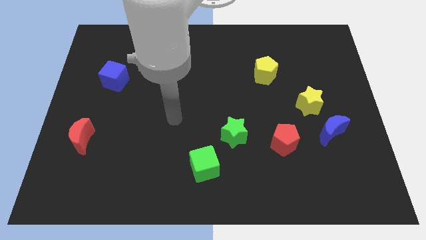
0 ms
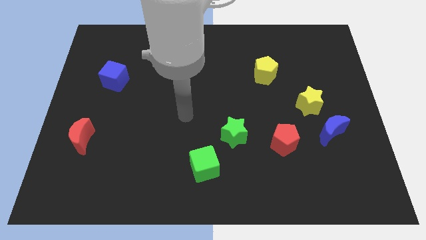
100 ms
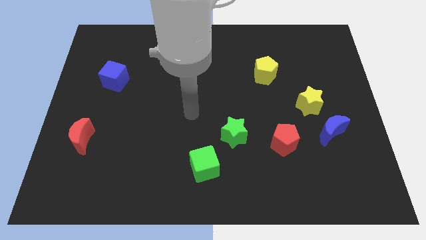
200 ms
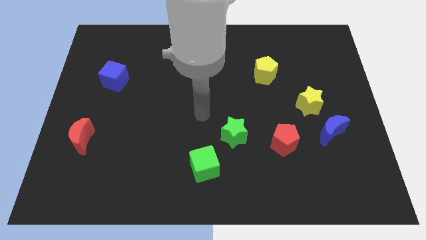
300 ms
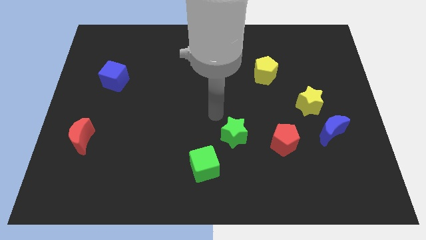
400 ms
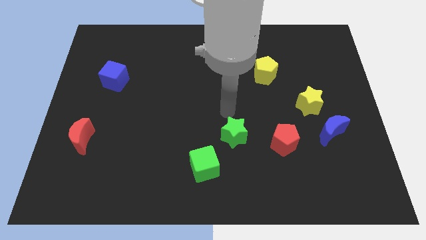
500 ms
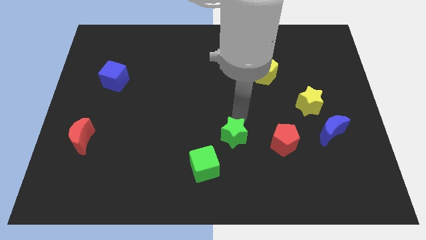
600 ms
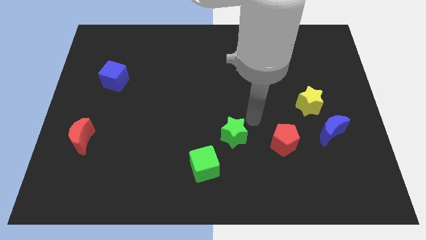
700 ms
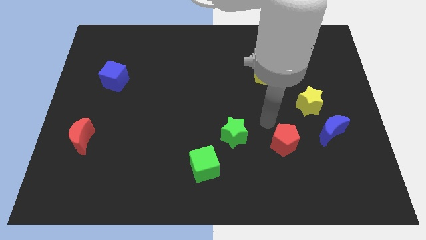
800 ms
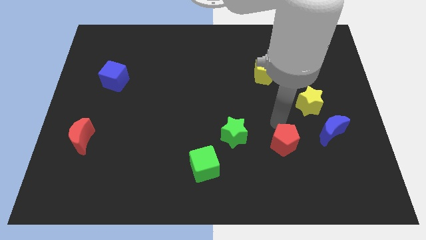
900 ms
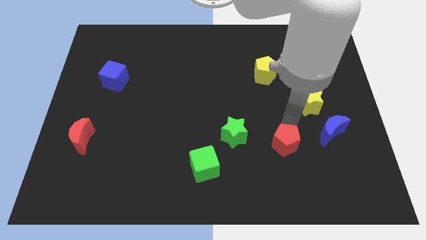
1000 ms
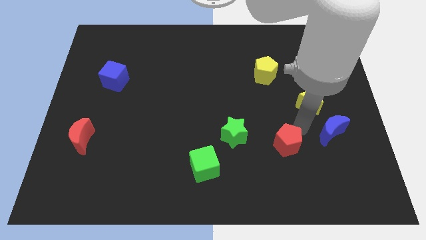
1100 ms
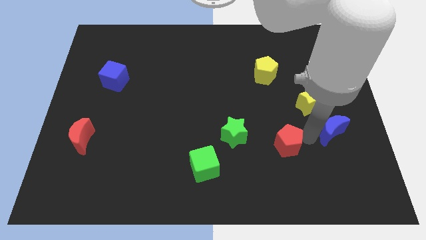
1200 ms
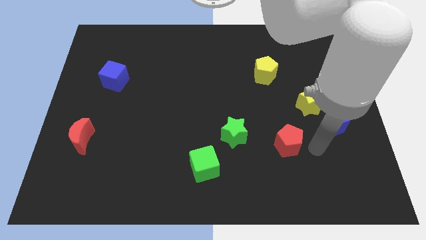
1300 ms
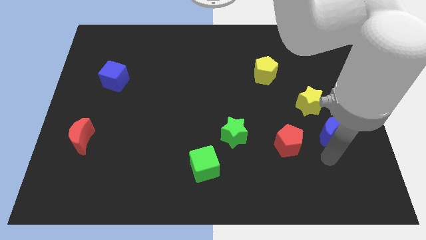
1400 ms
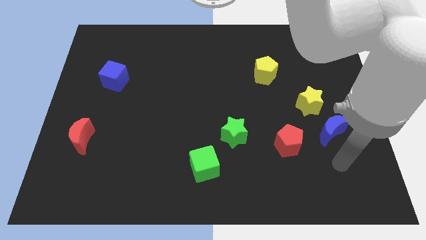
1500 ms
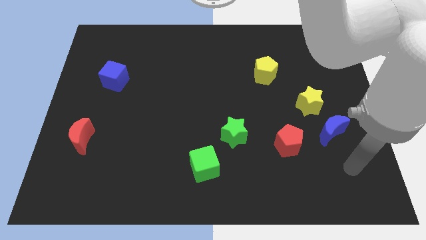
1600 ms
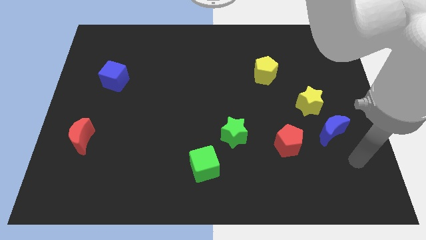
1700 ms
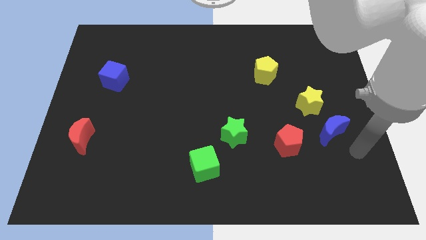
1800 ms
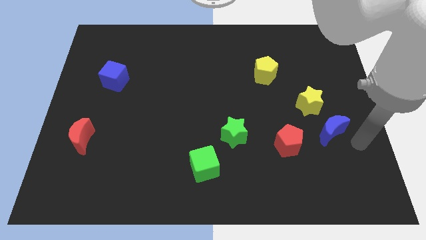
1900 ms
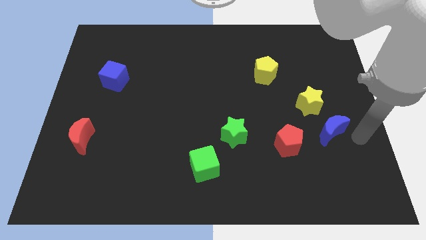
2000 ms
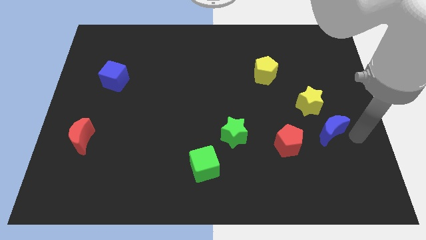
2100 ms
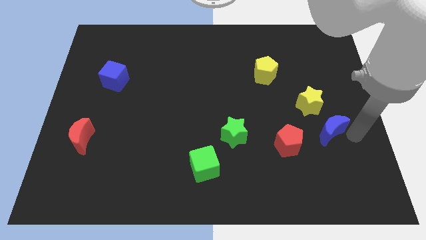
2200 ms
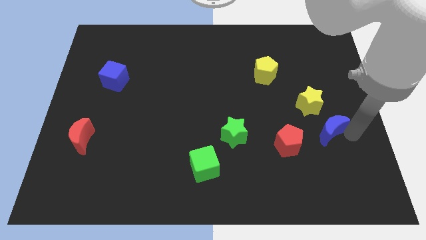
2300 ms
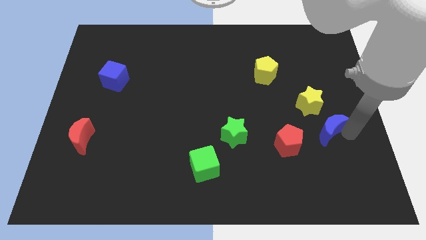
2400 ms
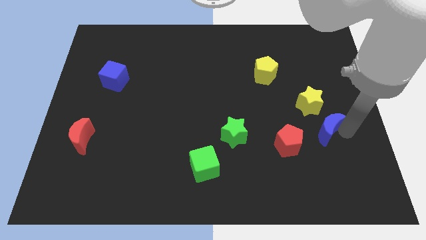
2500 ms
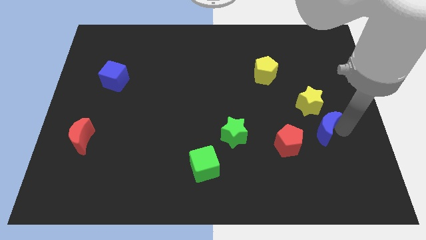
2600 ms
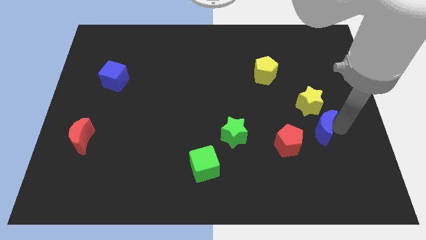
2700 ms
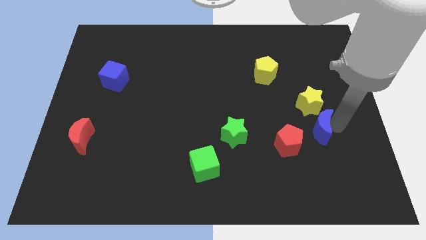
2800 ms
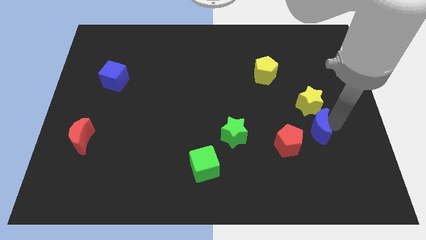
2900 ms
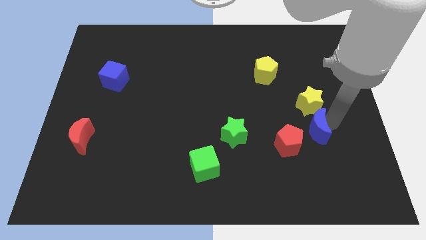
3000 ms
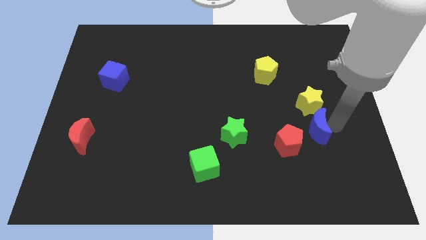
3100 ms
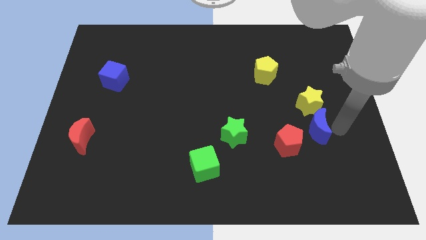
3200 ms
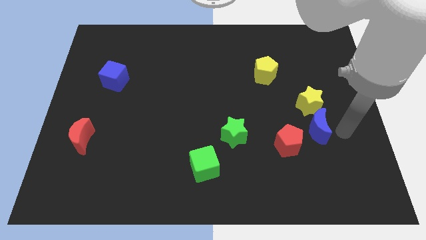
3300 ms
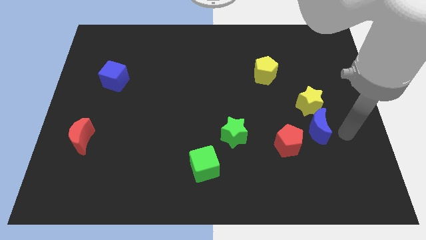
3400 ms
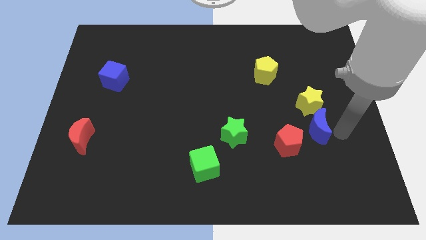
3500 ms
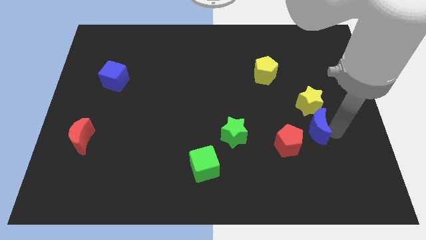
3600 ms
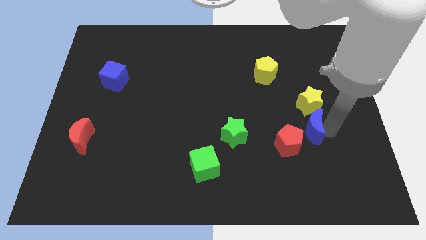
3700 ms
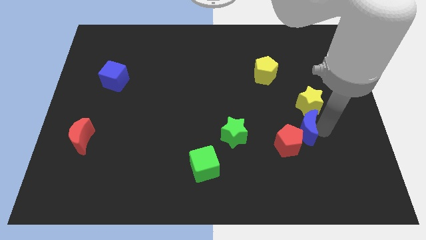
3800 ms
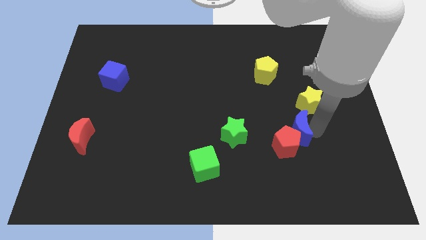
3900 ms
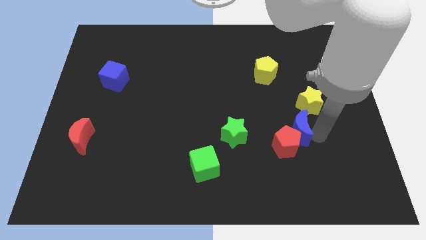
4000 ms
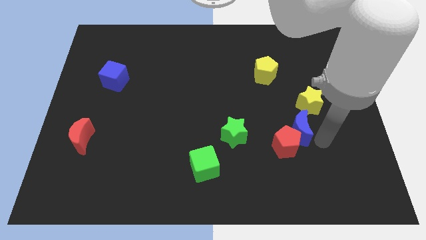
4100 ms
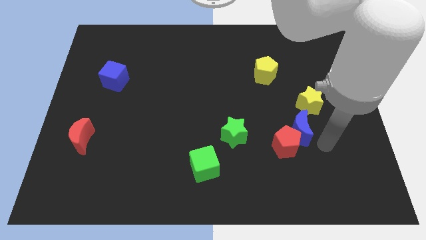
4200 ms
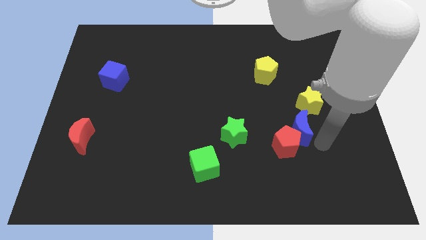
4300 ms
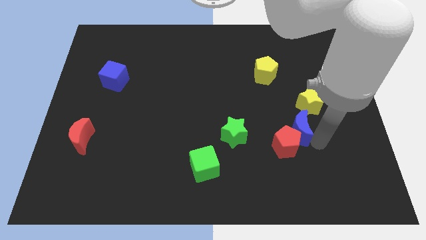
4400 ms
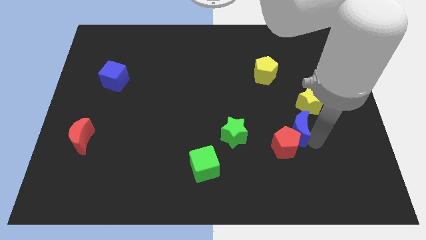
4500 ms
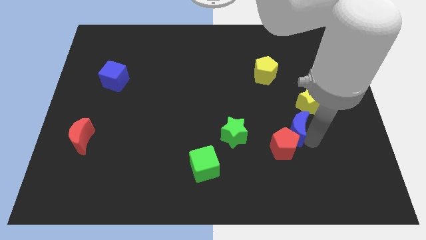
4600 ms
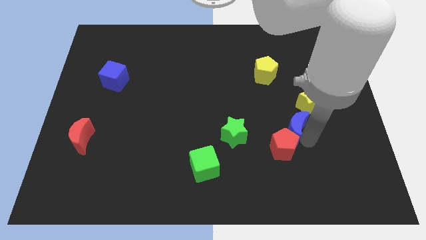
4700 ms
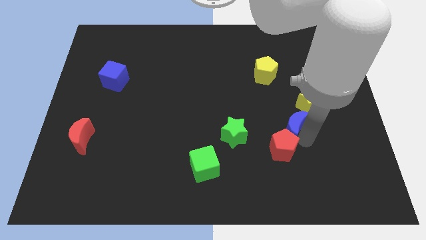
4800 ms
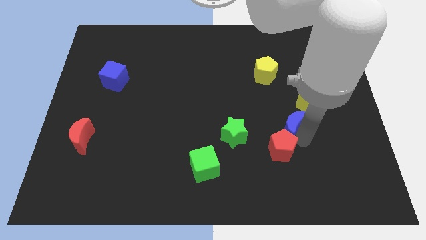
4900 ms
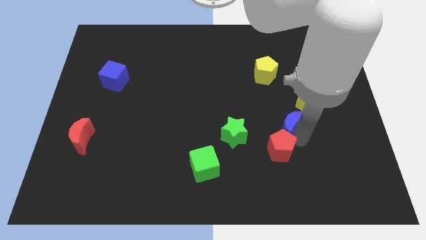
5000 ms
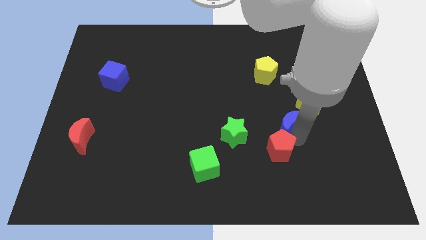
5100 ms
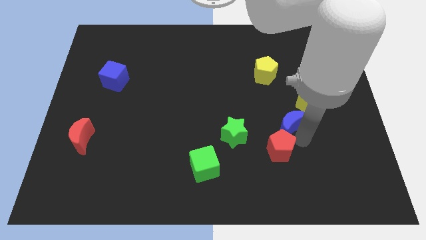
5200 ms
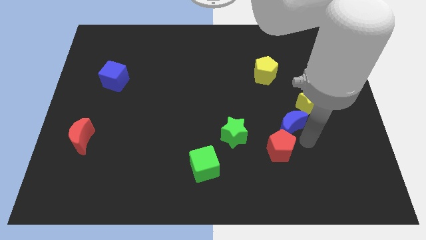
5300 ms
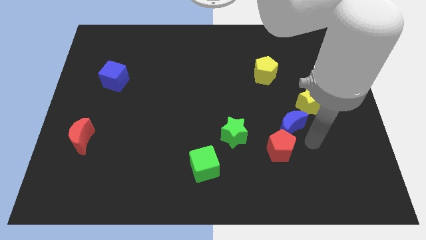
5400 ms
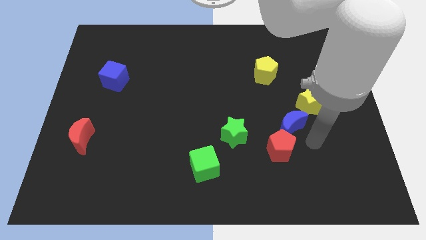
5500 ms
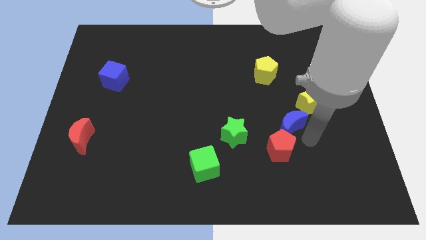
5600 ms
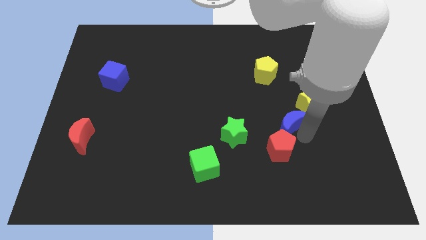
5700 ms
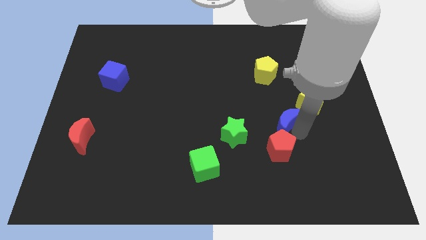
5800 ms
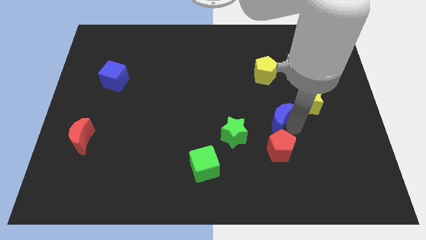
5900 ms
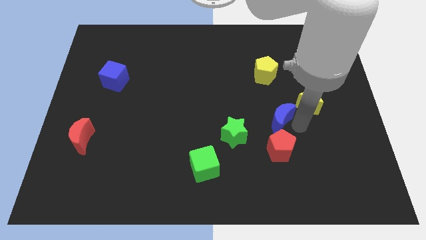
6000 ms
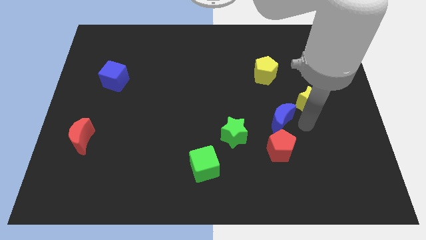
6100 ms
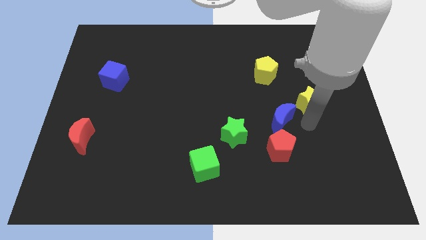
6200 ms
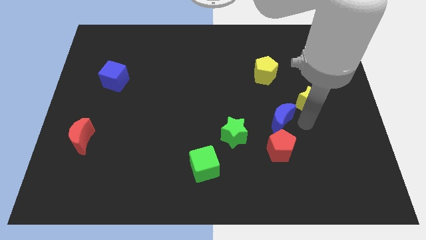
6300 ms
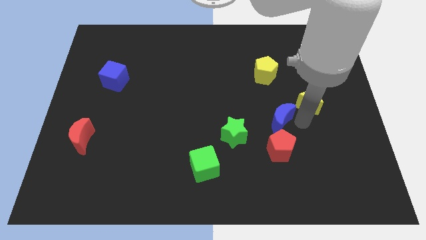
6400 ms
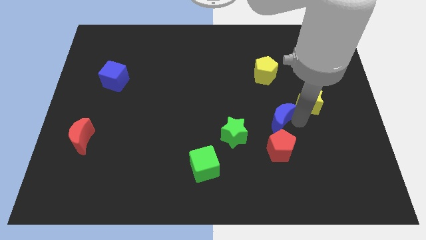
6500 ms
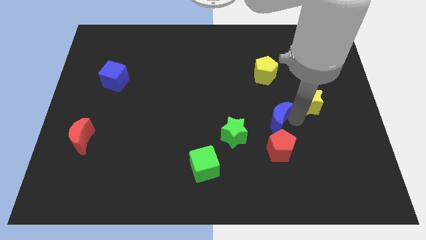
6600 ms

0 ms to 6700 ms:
move the blue moon to the top right of the green star

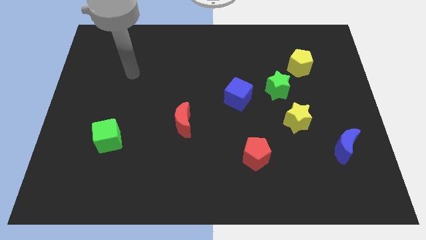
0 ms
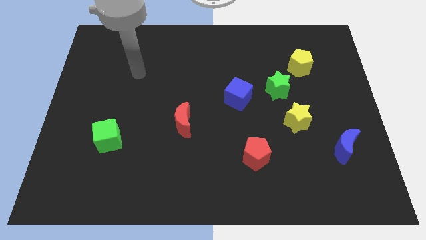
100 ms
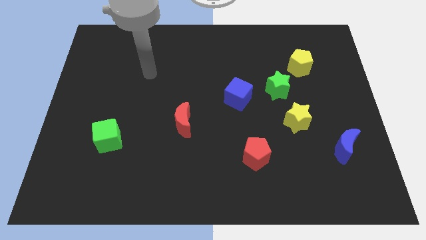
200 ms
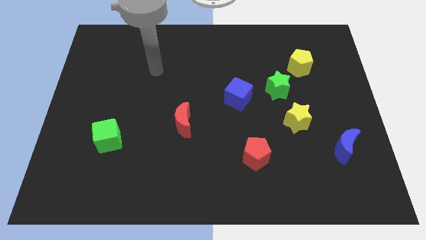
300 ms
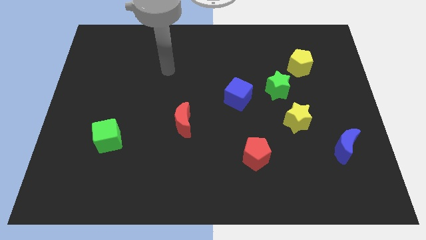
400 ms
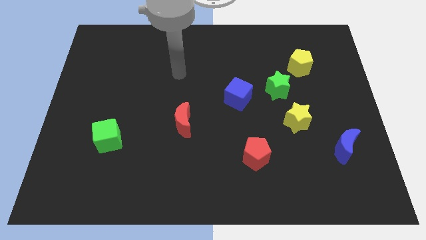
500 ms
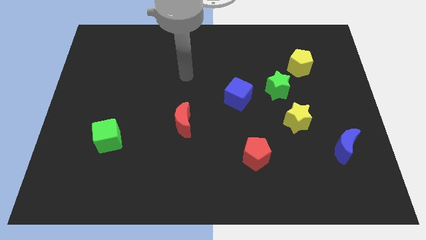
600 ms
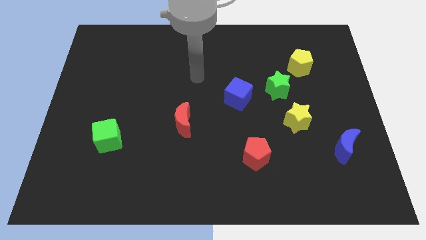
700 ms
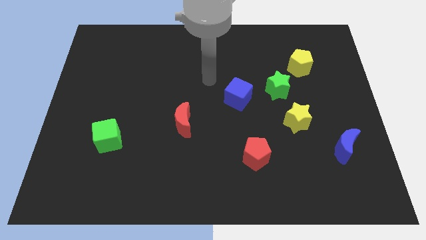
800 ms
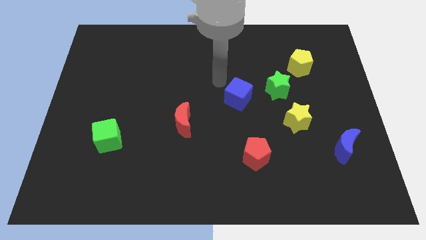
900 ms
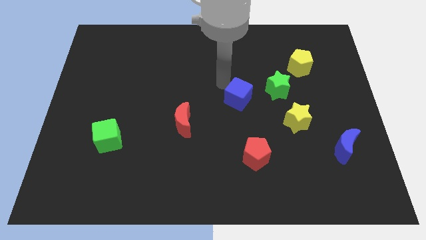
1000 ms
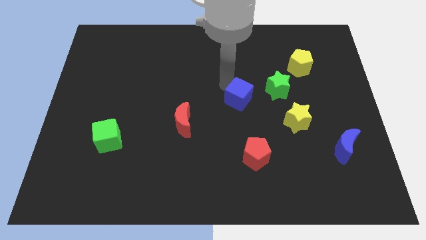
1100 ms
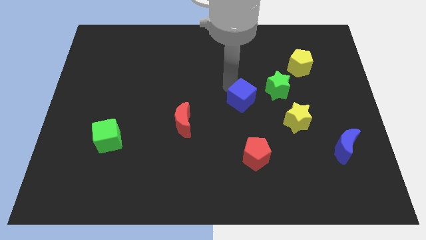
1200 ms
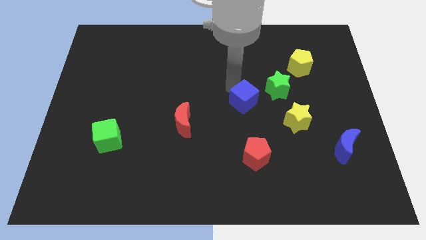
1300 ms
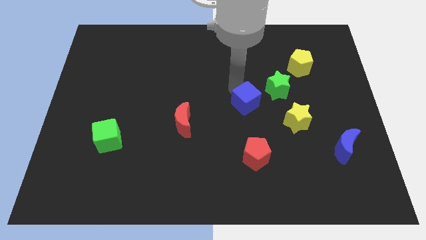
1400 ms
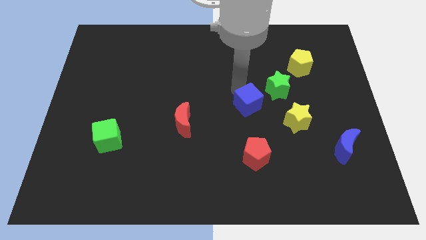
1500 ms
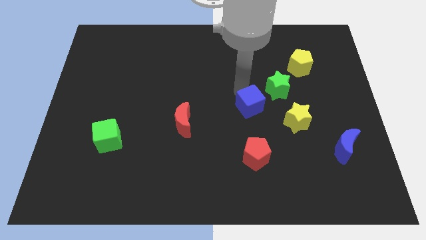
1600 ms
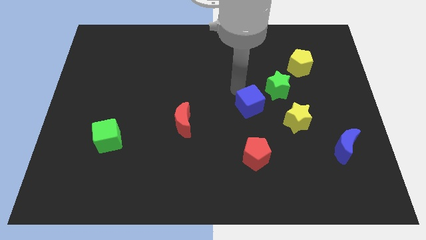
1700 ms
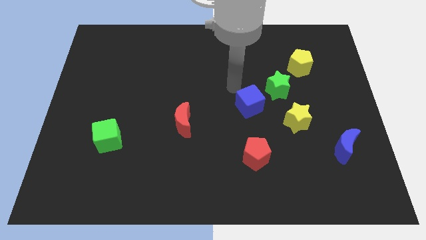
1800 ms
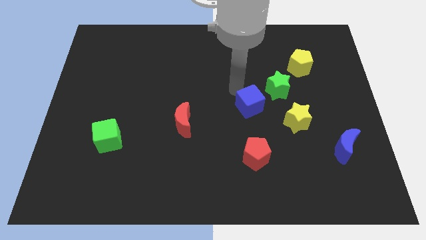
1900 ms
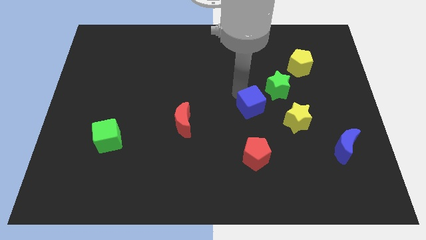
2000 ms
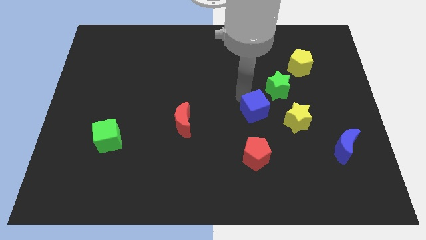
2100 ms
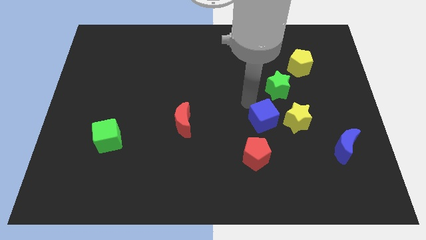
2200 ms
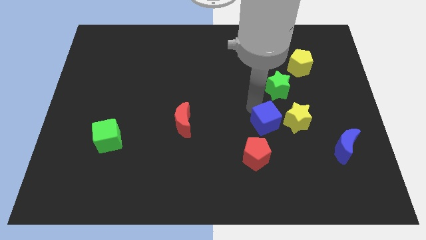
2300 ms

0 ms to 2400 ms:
put the blue cube to the bottom left of the yellow star
